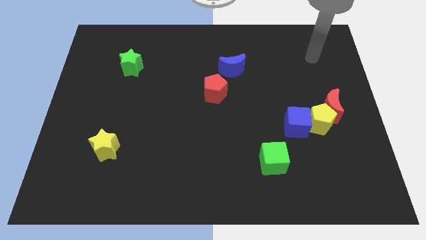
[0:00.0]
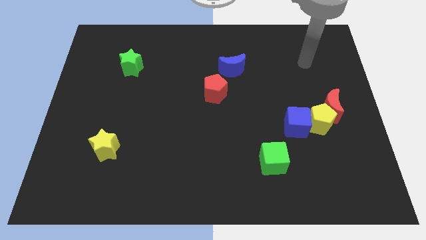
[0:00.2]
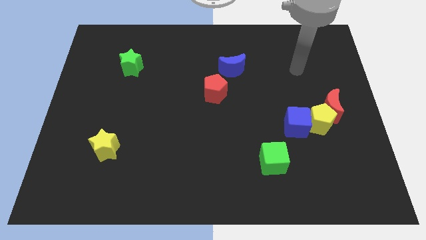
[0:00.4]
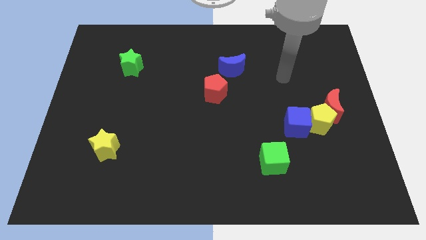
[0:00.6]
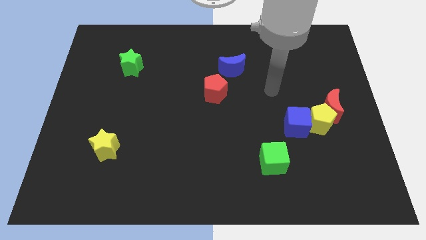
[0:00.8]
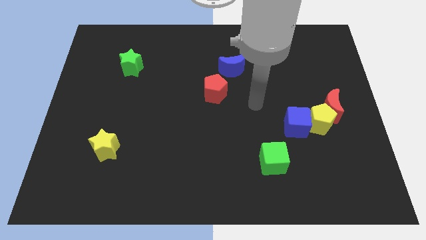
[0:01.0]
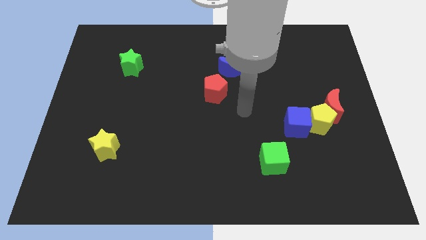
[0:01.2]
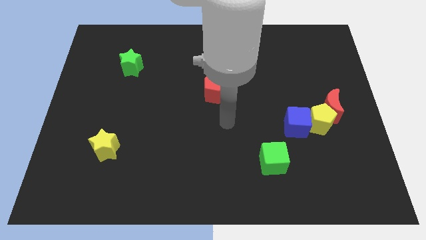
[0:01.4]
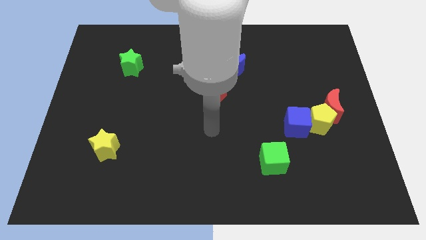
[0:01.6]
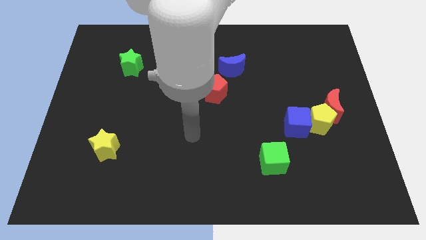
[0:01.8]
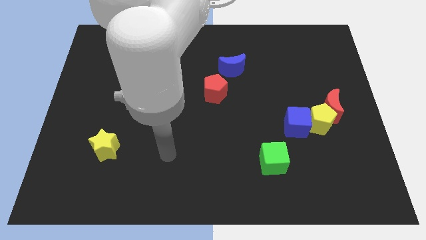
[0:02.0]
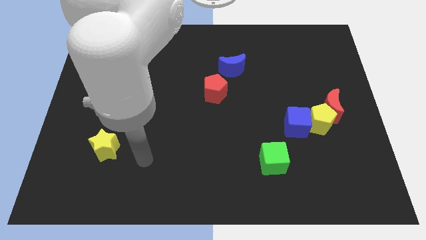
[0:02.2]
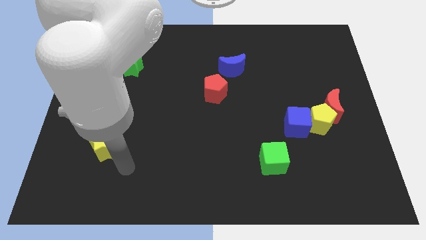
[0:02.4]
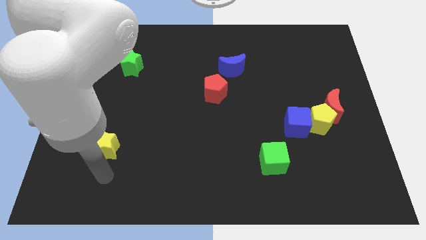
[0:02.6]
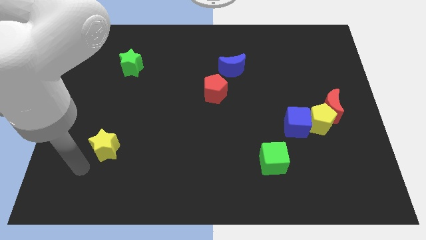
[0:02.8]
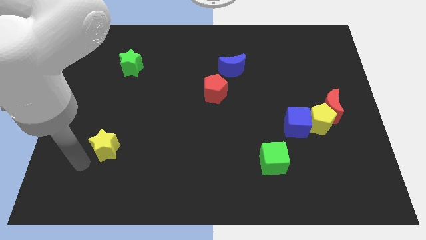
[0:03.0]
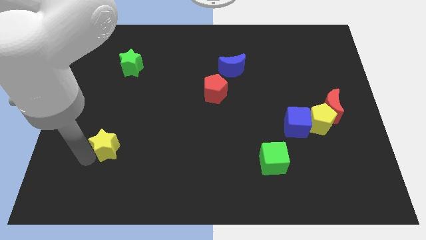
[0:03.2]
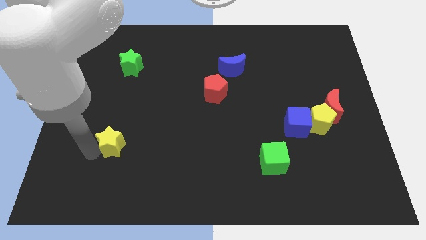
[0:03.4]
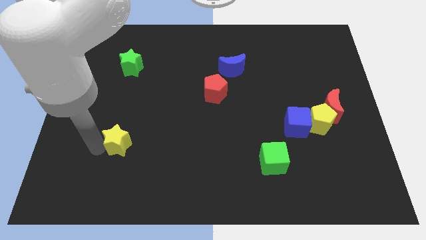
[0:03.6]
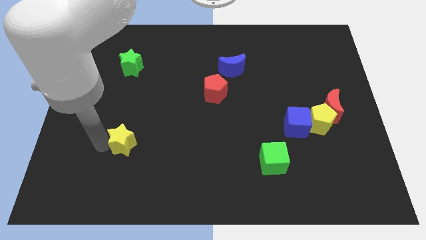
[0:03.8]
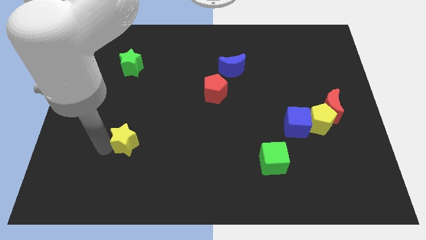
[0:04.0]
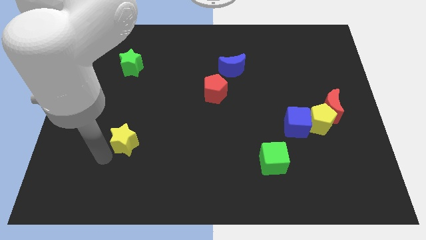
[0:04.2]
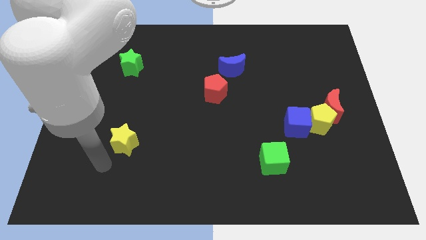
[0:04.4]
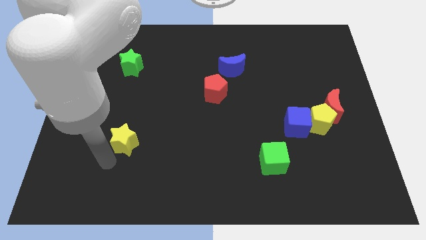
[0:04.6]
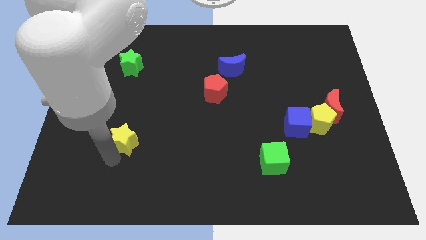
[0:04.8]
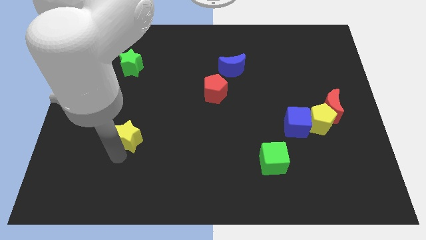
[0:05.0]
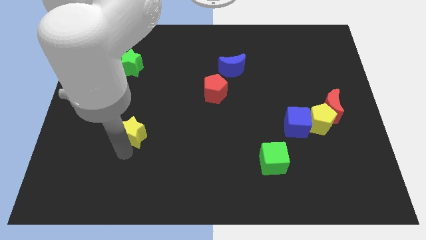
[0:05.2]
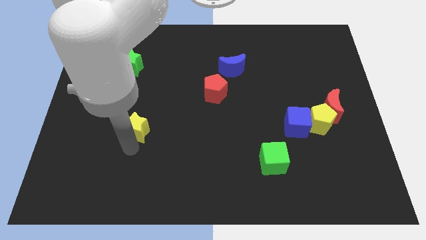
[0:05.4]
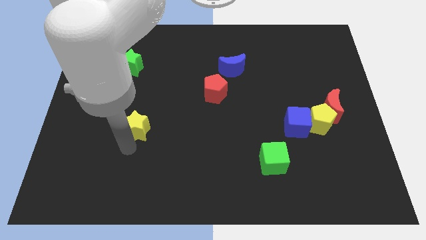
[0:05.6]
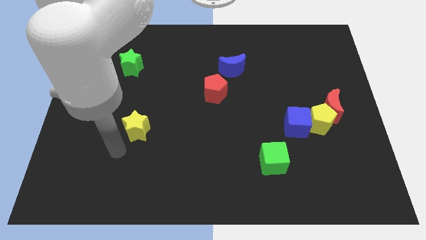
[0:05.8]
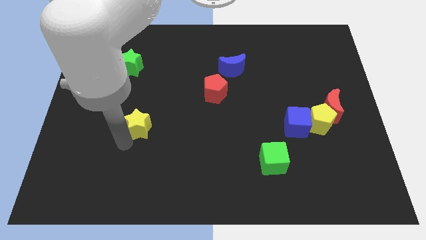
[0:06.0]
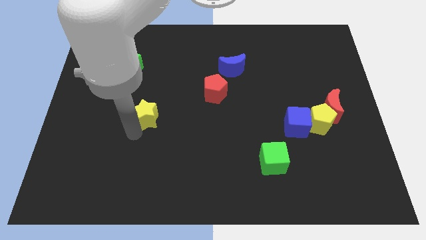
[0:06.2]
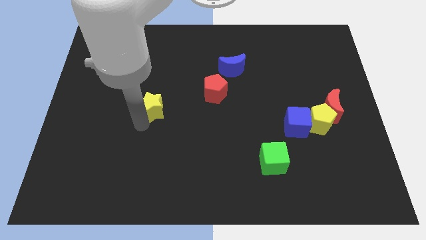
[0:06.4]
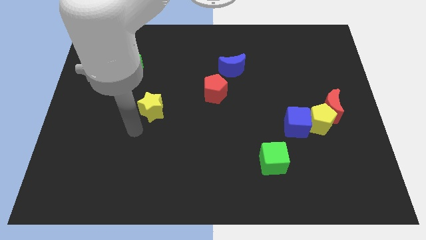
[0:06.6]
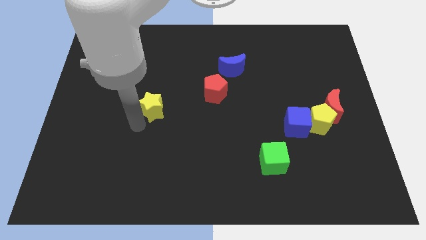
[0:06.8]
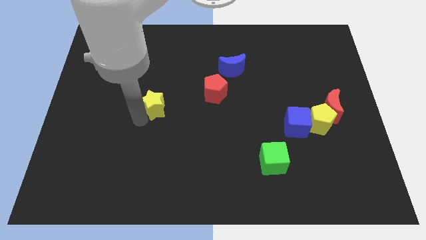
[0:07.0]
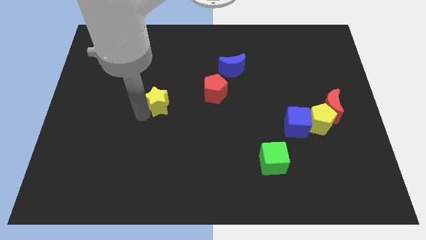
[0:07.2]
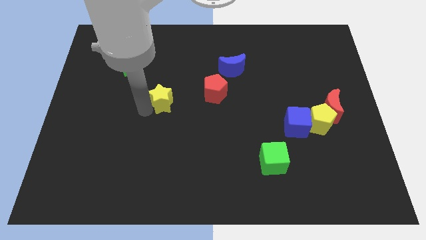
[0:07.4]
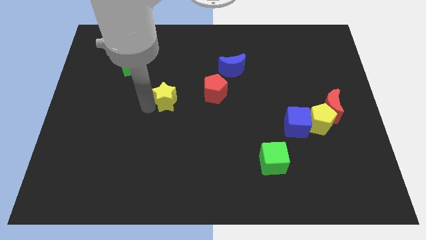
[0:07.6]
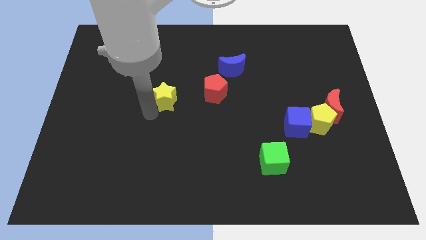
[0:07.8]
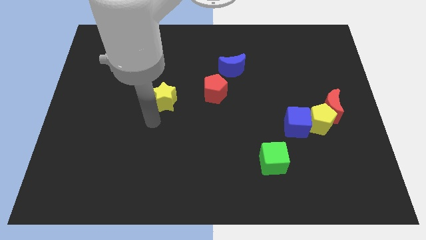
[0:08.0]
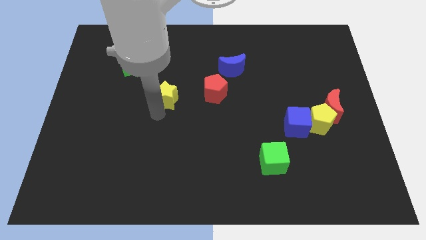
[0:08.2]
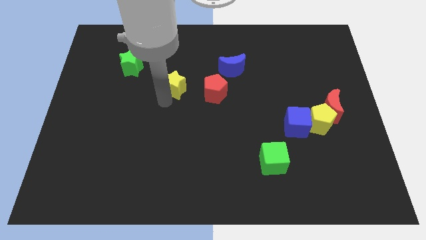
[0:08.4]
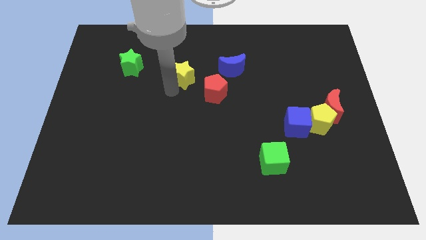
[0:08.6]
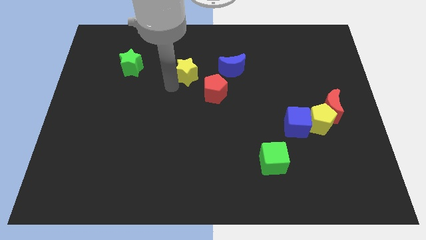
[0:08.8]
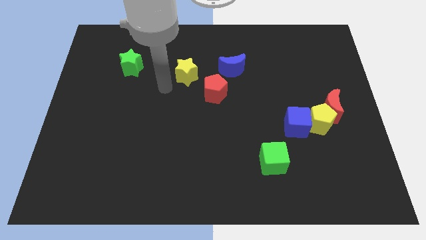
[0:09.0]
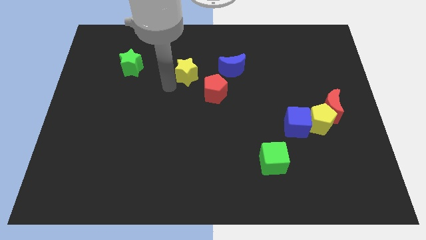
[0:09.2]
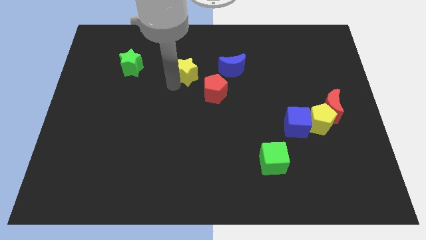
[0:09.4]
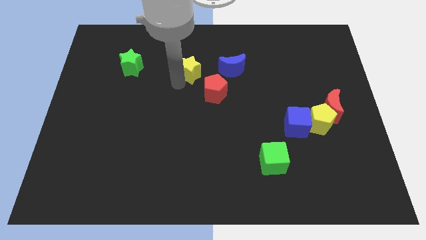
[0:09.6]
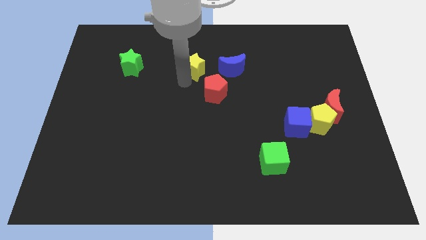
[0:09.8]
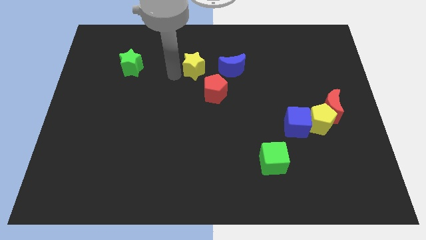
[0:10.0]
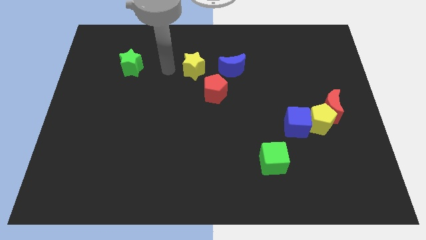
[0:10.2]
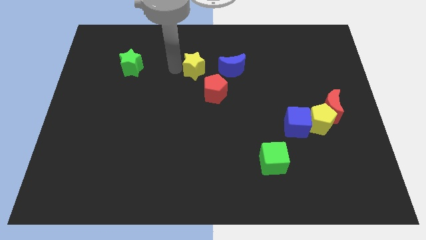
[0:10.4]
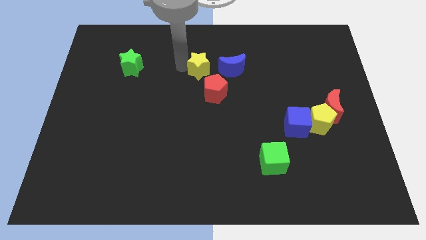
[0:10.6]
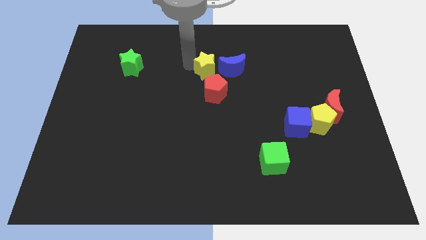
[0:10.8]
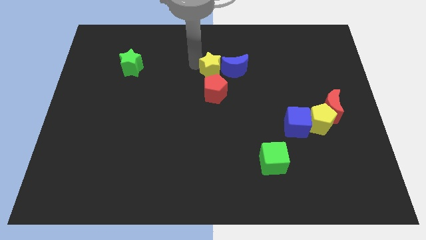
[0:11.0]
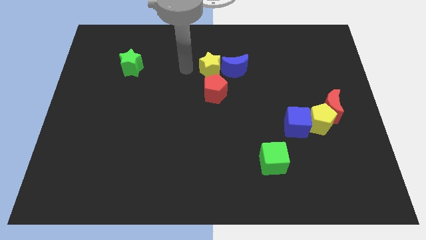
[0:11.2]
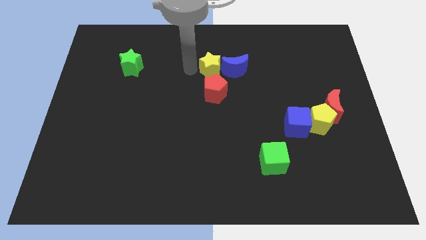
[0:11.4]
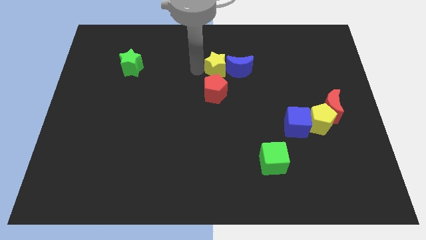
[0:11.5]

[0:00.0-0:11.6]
move the yellow star next to the blue moon

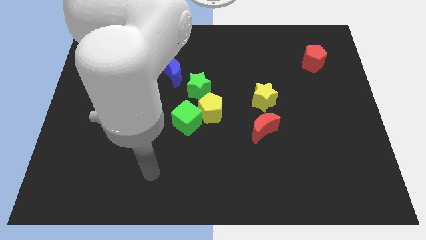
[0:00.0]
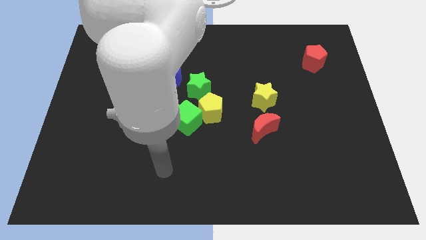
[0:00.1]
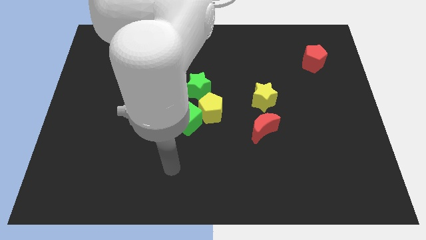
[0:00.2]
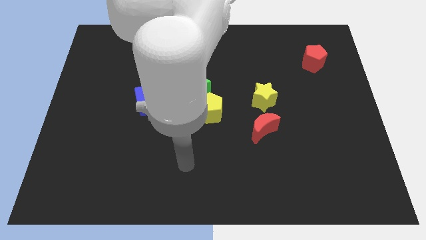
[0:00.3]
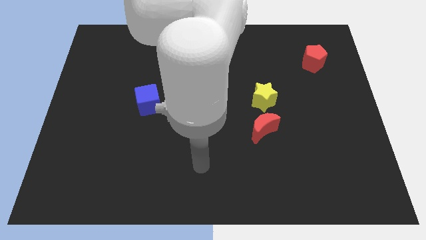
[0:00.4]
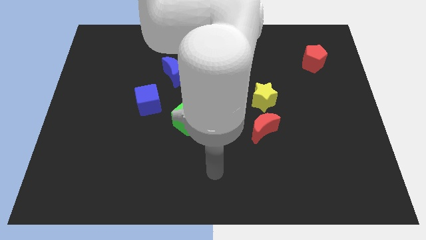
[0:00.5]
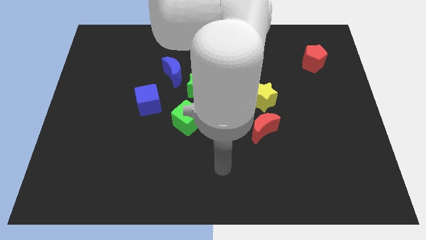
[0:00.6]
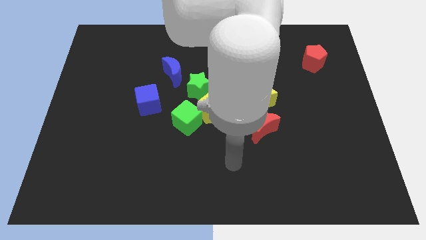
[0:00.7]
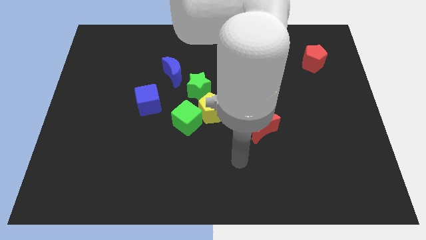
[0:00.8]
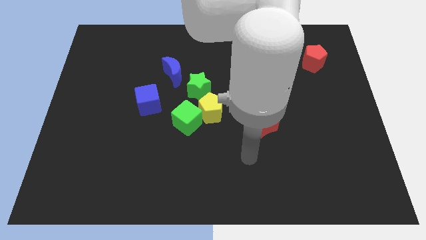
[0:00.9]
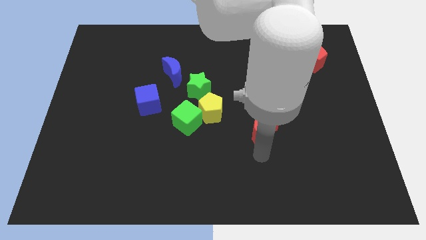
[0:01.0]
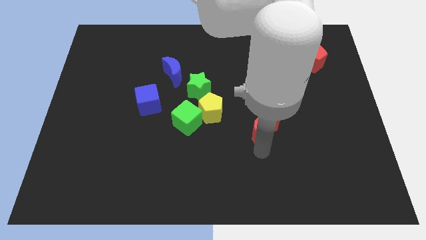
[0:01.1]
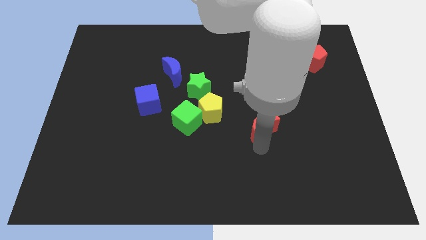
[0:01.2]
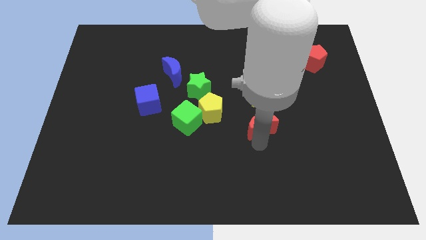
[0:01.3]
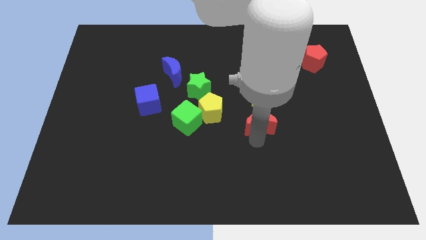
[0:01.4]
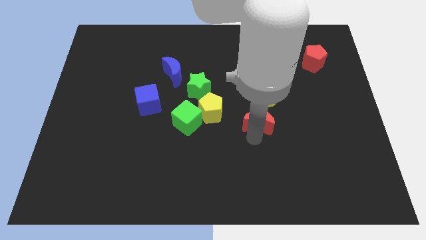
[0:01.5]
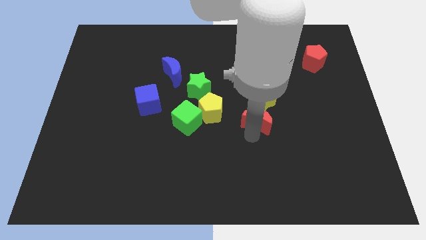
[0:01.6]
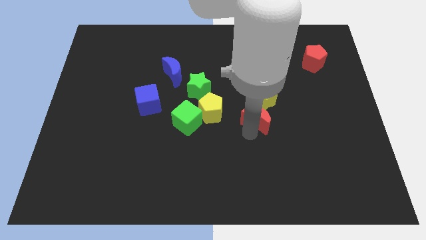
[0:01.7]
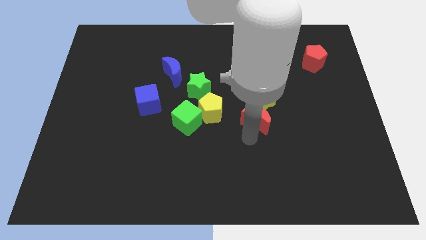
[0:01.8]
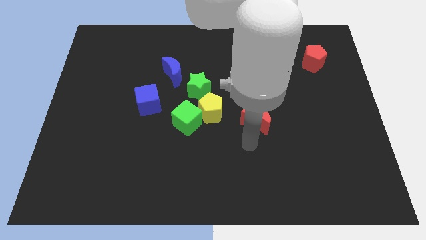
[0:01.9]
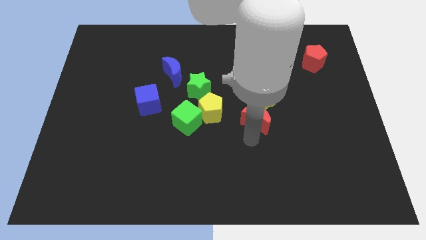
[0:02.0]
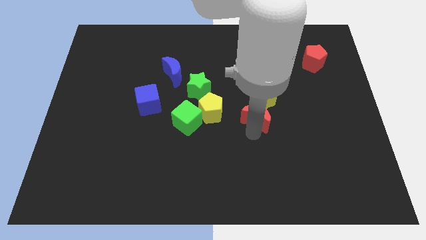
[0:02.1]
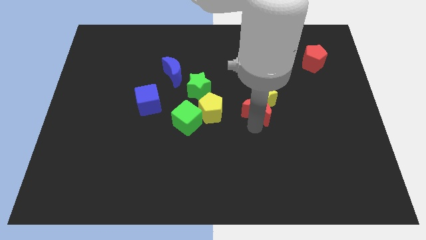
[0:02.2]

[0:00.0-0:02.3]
push the red moon to the yellow star
